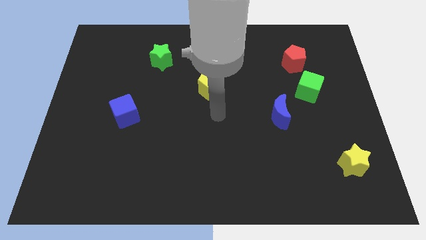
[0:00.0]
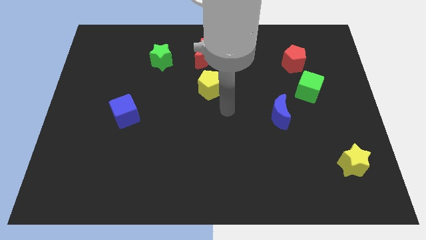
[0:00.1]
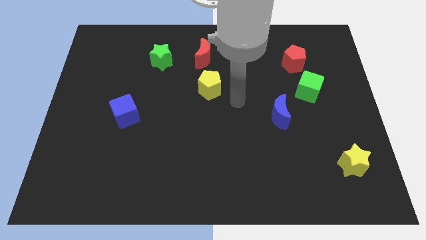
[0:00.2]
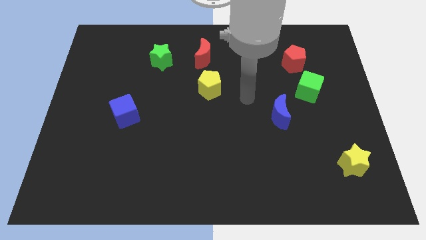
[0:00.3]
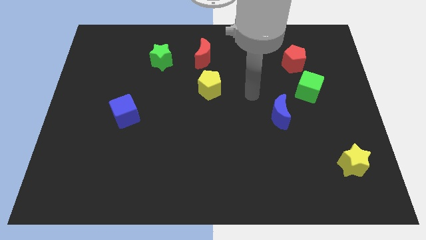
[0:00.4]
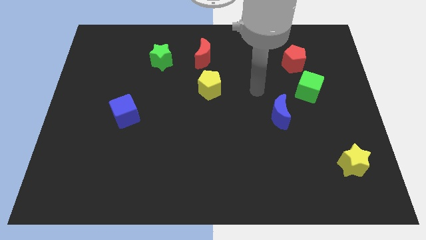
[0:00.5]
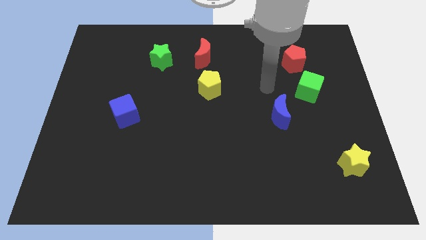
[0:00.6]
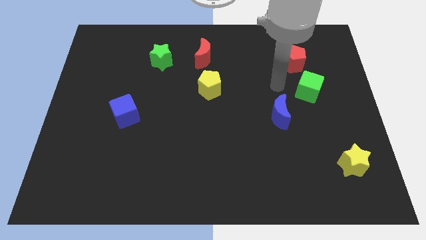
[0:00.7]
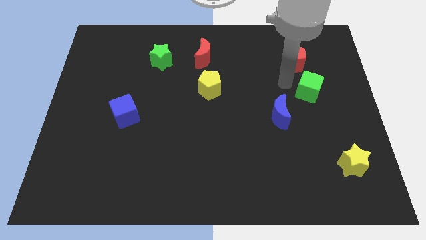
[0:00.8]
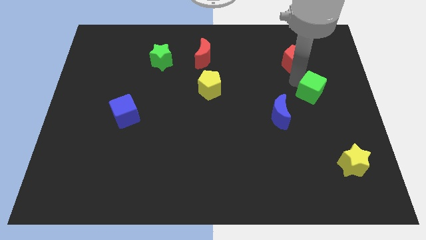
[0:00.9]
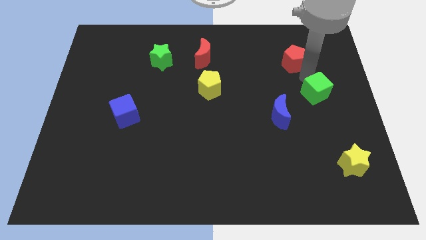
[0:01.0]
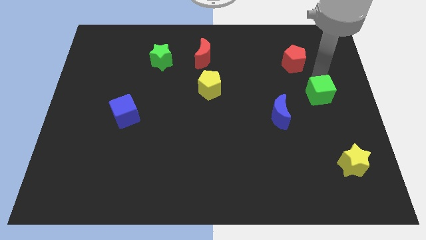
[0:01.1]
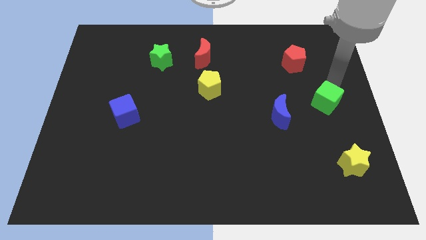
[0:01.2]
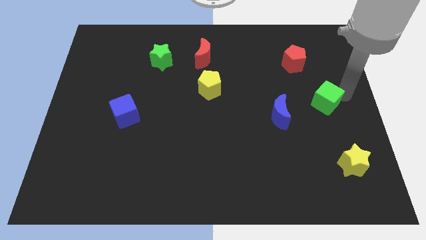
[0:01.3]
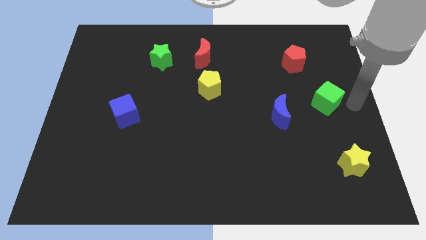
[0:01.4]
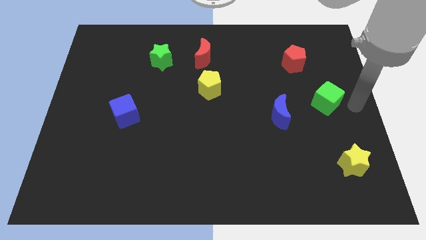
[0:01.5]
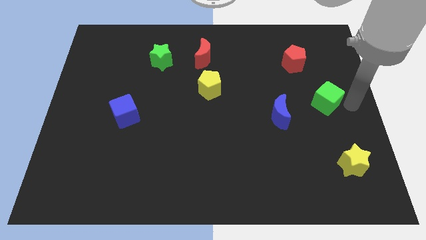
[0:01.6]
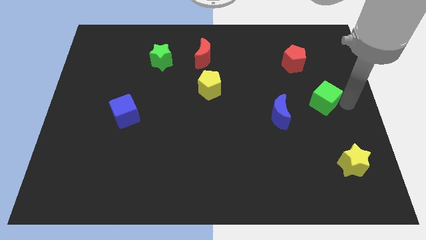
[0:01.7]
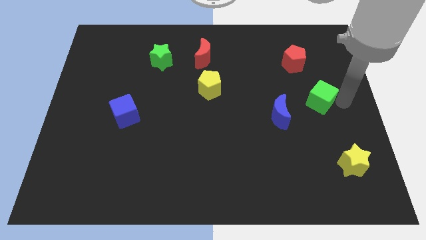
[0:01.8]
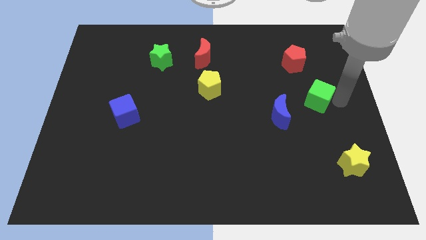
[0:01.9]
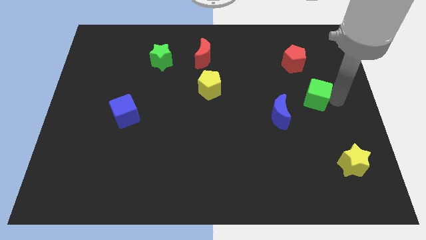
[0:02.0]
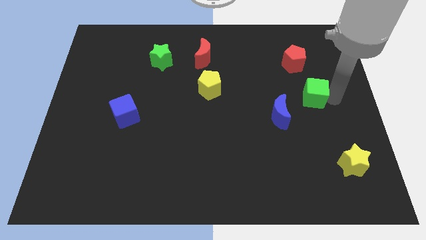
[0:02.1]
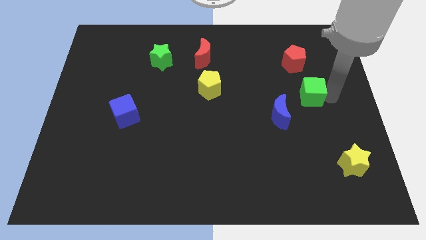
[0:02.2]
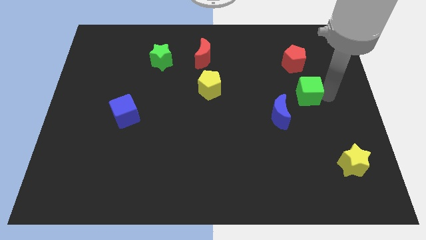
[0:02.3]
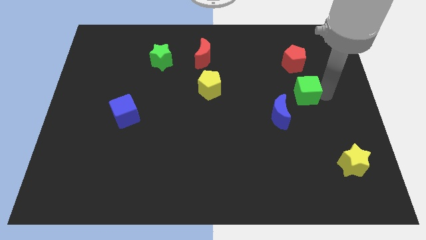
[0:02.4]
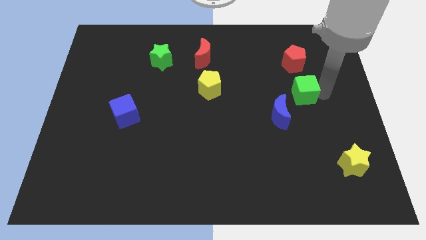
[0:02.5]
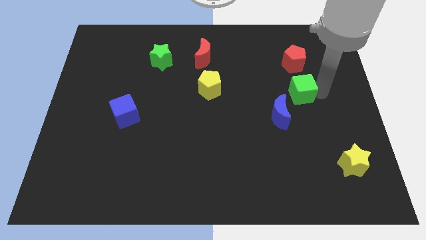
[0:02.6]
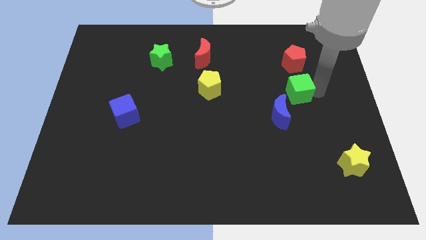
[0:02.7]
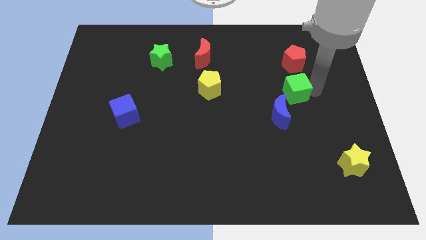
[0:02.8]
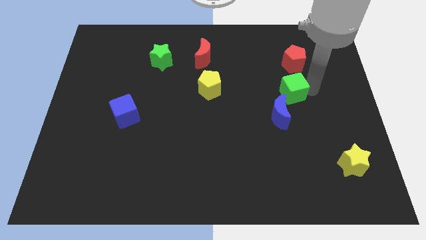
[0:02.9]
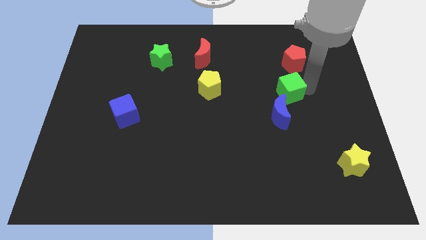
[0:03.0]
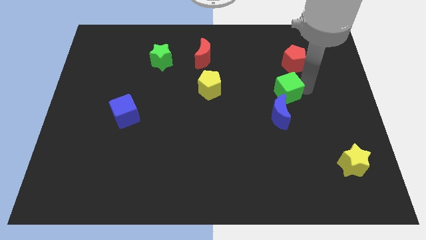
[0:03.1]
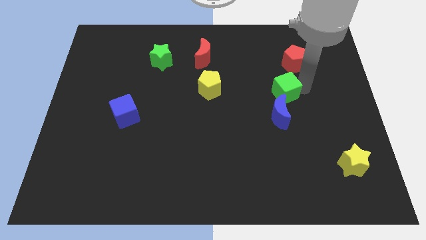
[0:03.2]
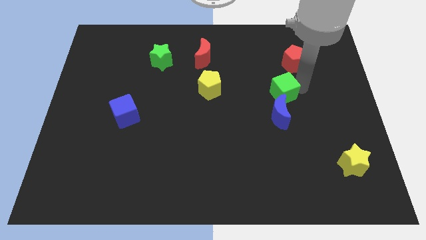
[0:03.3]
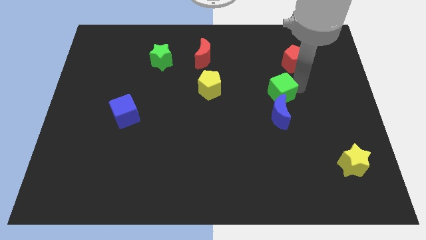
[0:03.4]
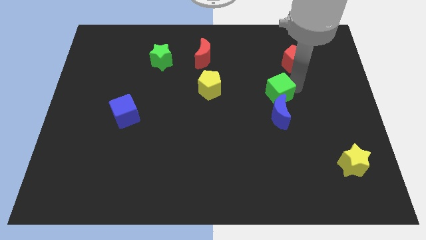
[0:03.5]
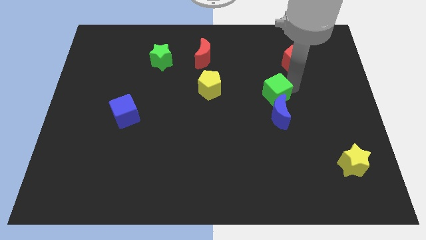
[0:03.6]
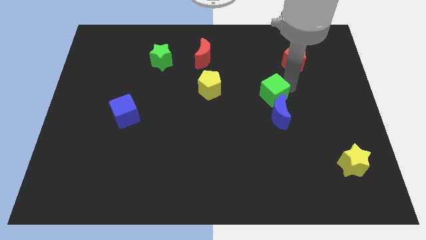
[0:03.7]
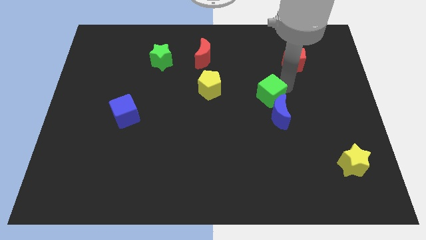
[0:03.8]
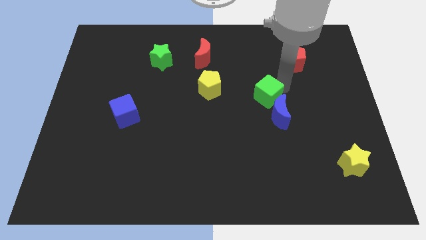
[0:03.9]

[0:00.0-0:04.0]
move the green cube a bit down and left diagonally

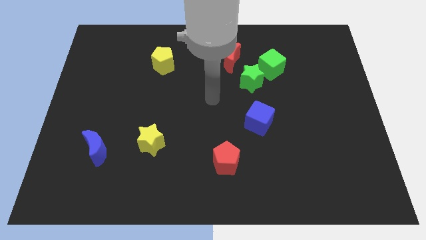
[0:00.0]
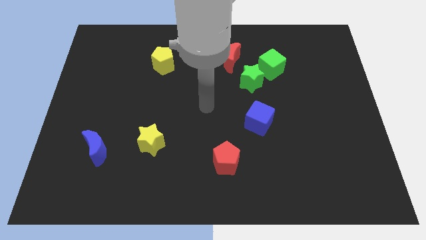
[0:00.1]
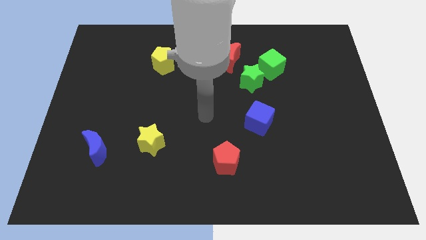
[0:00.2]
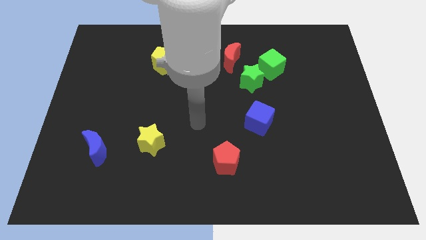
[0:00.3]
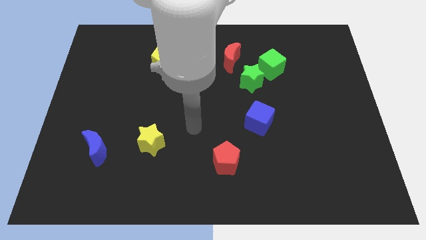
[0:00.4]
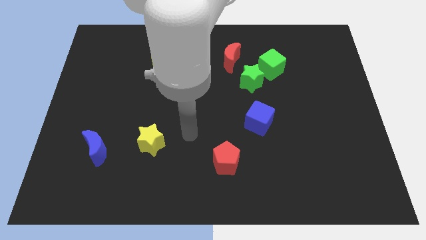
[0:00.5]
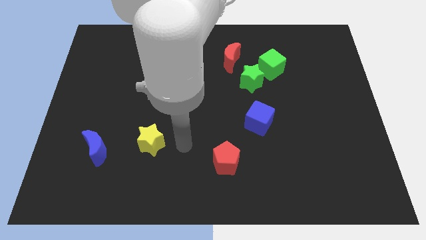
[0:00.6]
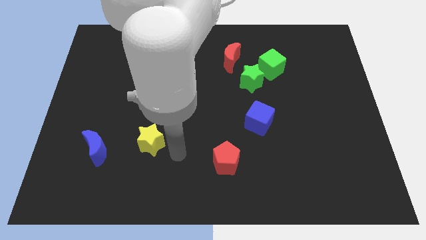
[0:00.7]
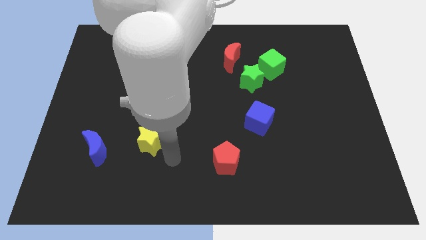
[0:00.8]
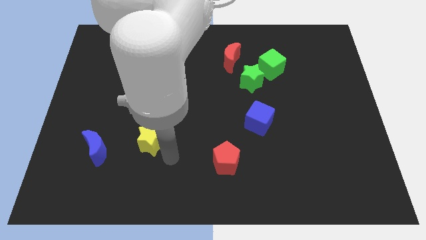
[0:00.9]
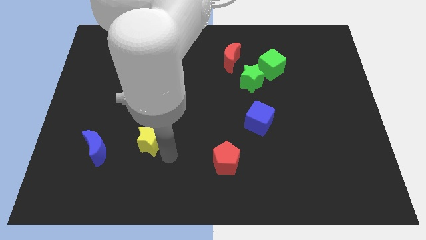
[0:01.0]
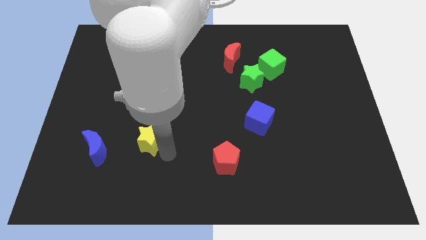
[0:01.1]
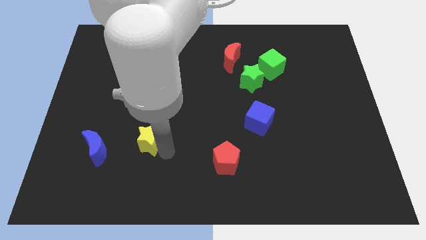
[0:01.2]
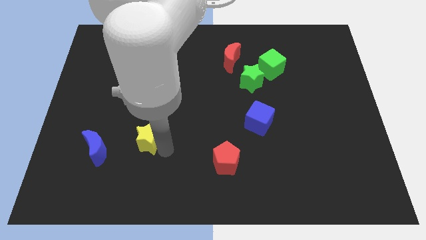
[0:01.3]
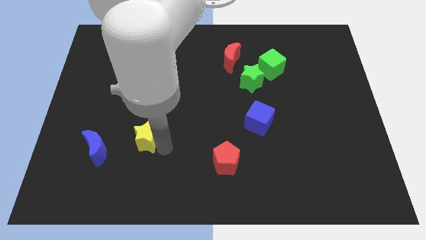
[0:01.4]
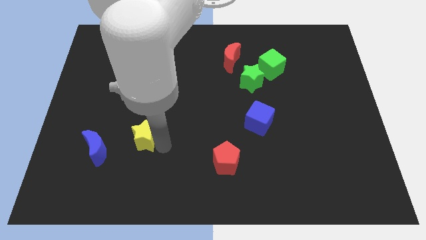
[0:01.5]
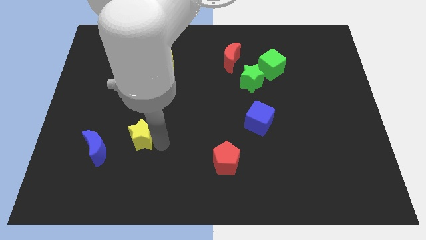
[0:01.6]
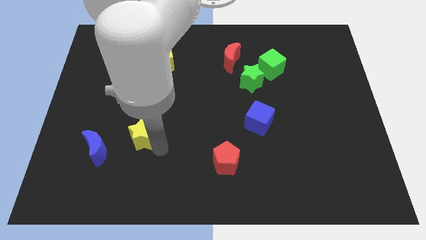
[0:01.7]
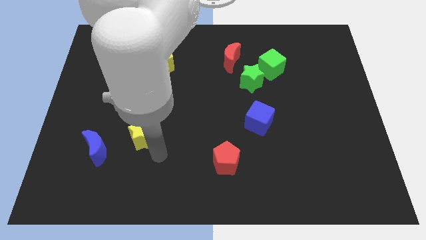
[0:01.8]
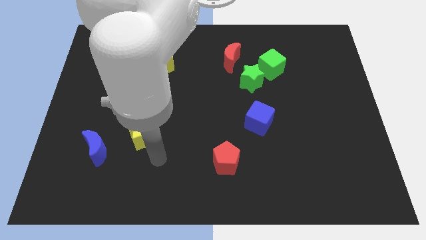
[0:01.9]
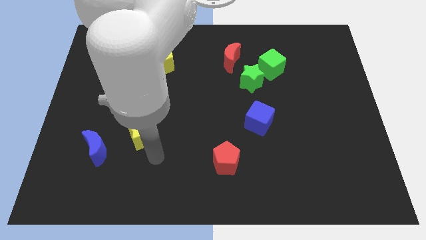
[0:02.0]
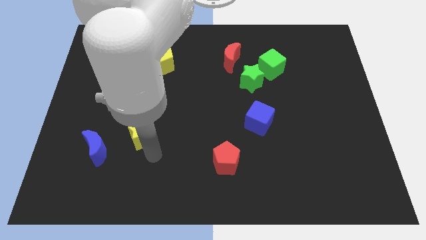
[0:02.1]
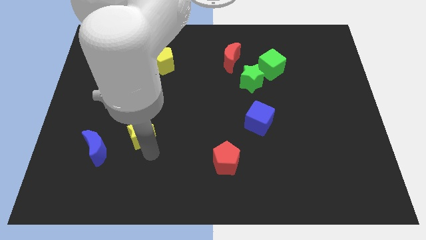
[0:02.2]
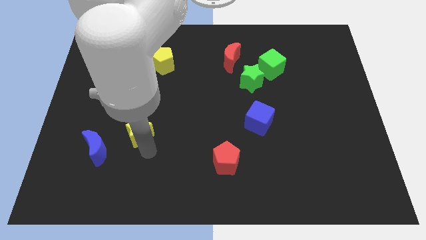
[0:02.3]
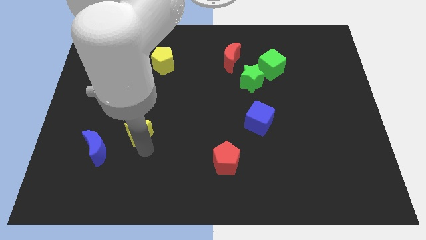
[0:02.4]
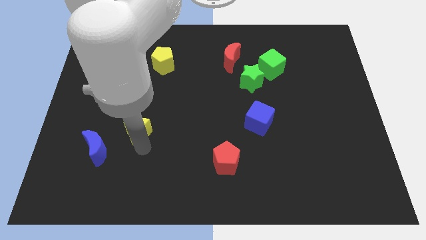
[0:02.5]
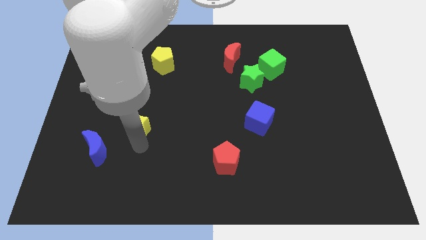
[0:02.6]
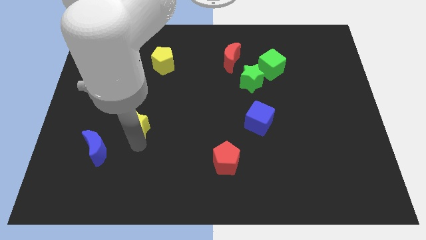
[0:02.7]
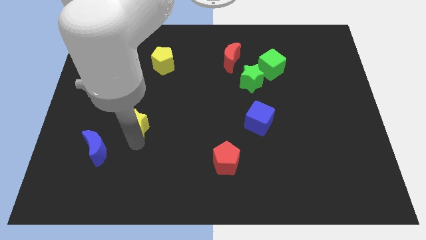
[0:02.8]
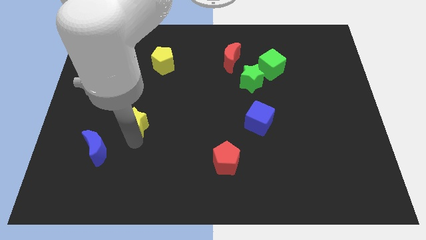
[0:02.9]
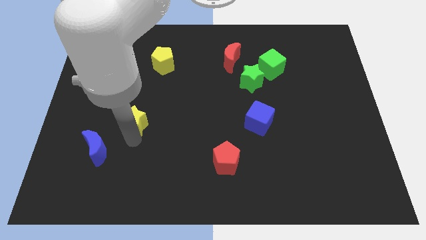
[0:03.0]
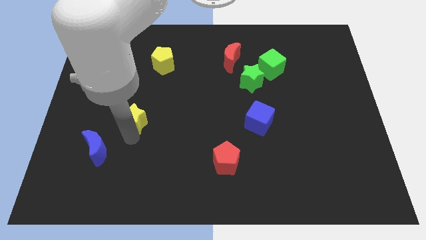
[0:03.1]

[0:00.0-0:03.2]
slightly push the yellow star diagonally up and left

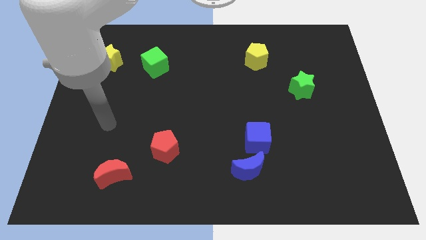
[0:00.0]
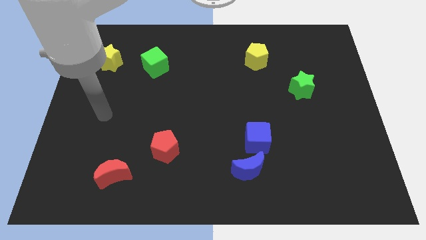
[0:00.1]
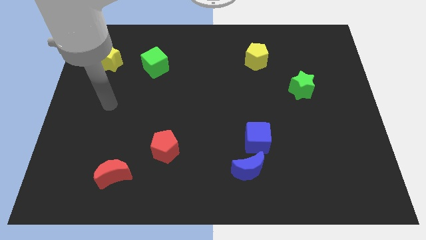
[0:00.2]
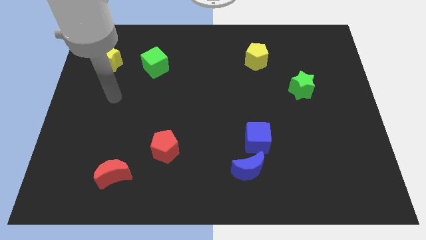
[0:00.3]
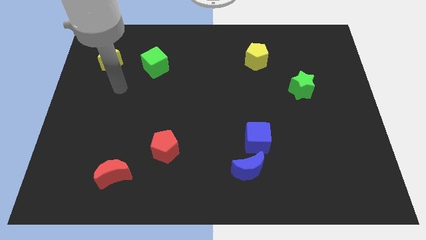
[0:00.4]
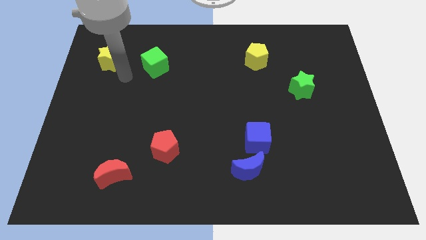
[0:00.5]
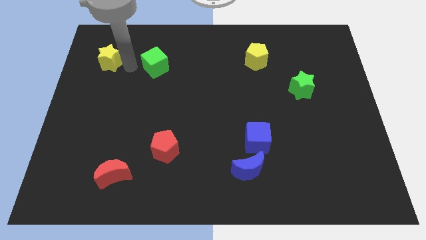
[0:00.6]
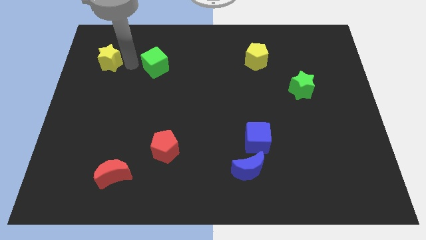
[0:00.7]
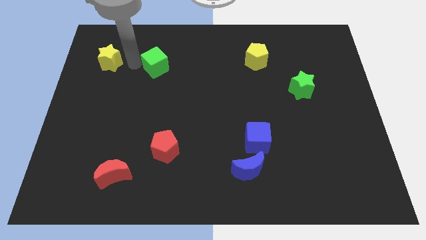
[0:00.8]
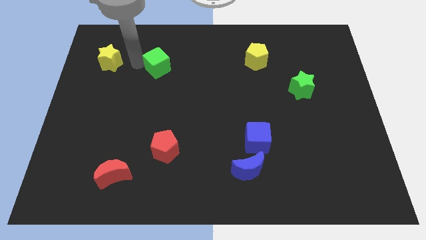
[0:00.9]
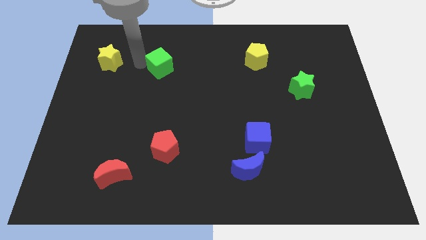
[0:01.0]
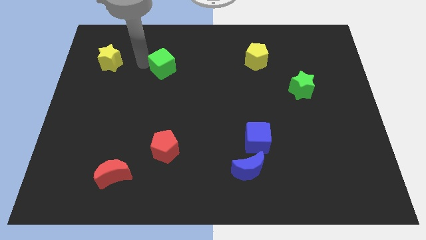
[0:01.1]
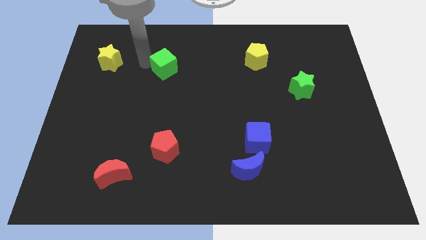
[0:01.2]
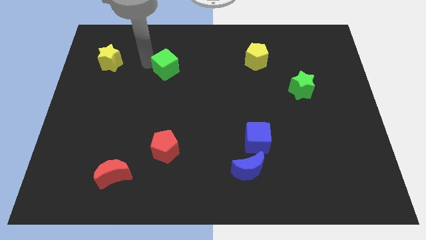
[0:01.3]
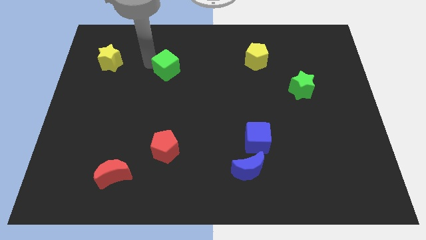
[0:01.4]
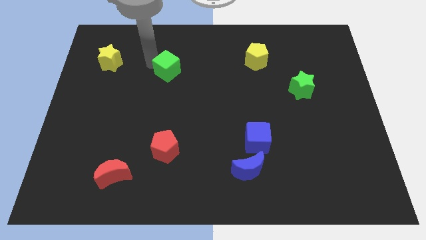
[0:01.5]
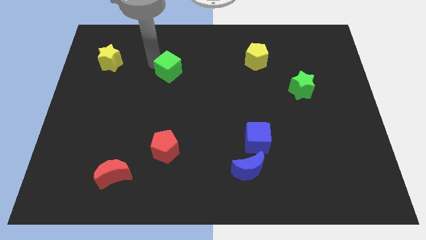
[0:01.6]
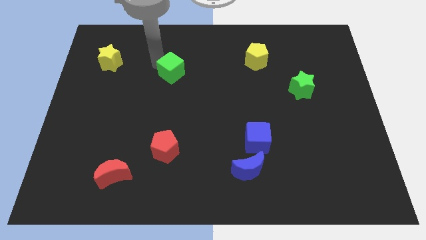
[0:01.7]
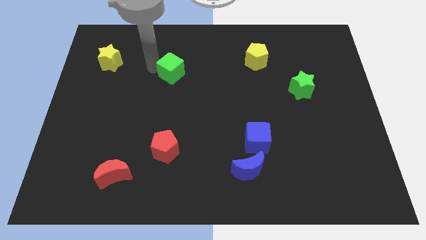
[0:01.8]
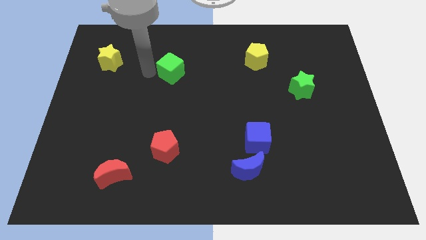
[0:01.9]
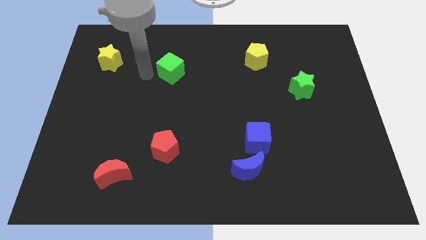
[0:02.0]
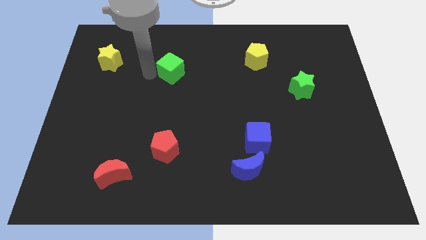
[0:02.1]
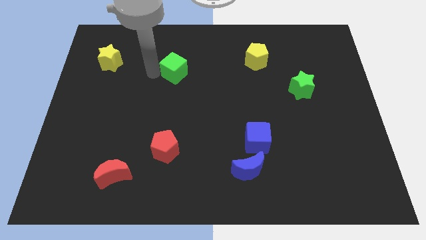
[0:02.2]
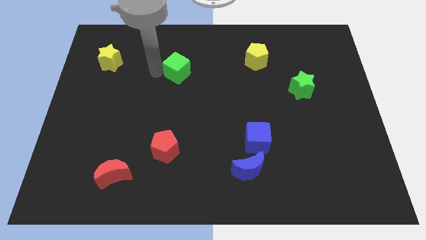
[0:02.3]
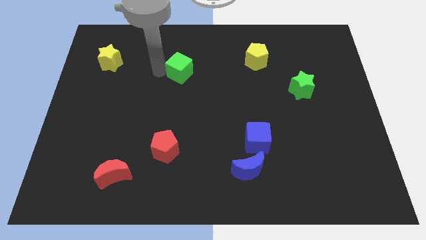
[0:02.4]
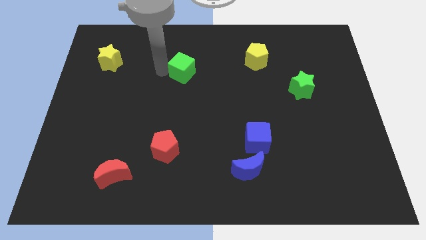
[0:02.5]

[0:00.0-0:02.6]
move the green cube to the right slightly
